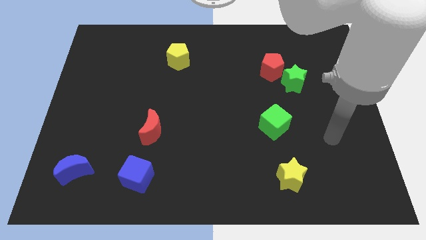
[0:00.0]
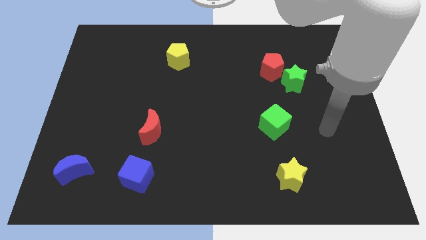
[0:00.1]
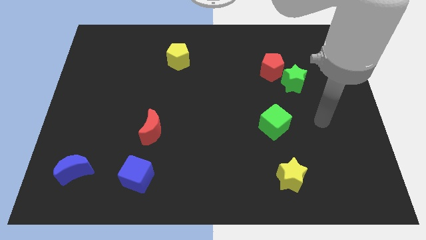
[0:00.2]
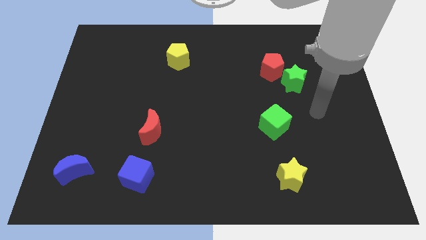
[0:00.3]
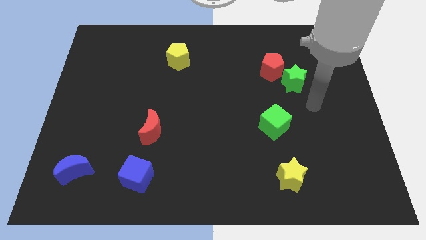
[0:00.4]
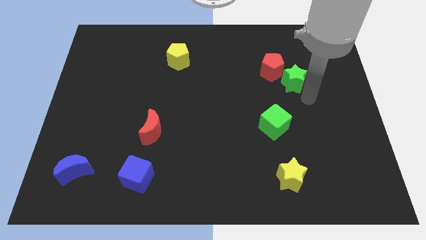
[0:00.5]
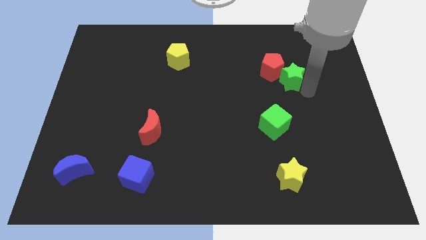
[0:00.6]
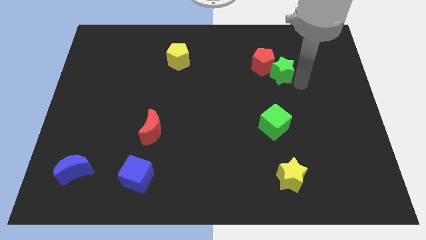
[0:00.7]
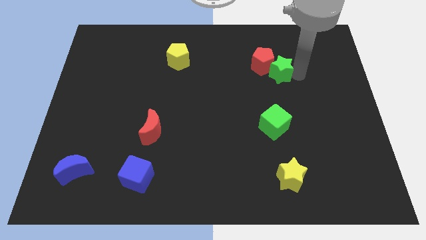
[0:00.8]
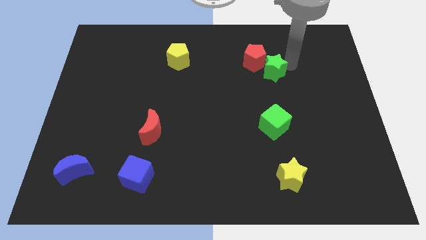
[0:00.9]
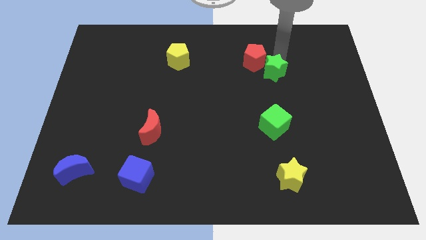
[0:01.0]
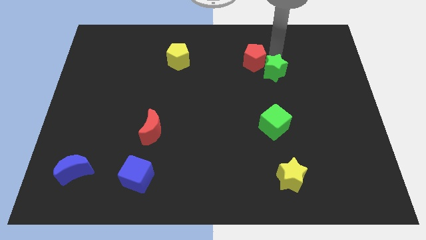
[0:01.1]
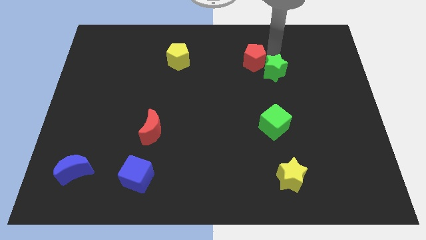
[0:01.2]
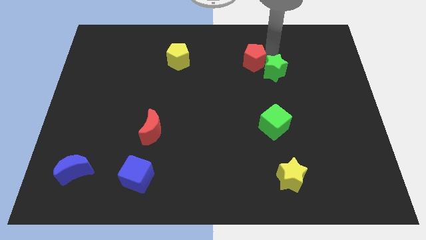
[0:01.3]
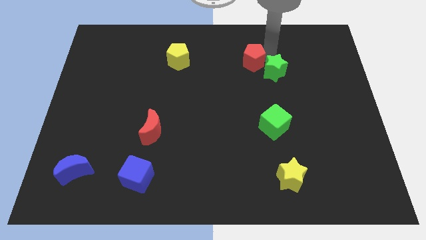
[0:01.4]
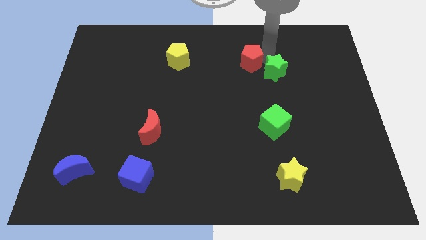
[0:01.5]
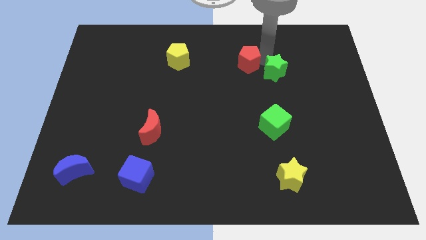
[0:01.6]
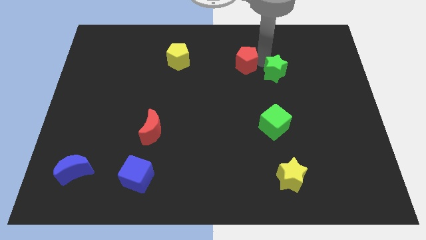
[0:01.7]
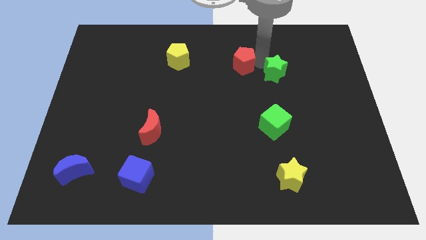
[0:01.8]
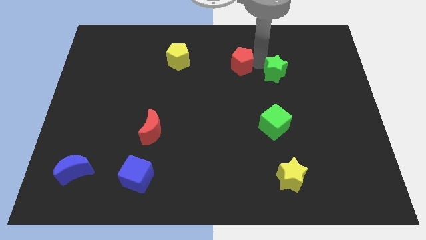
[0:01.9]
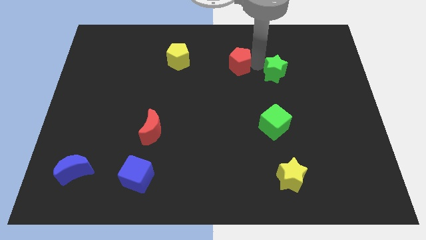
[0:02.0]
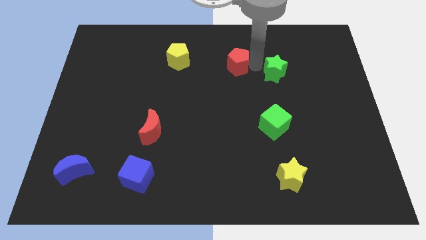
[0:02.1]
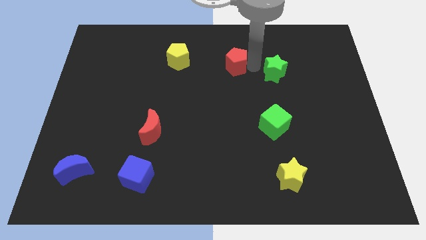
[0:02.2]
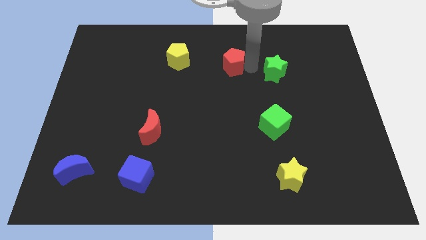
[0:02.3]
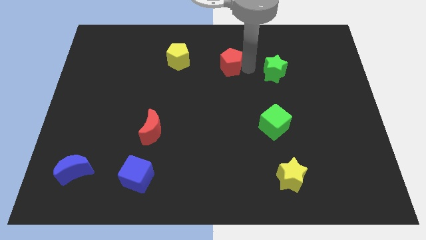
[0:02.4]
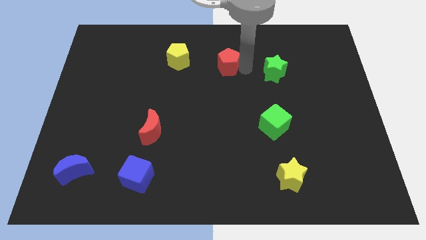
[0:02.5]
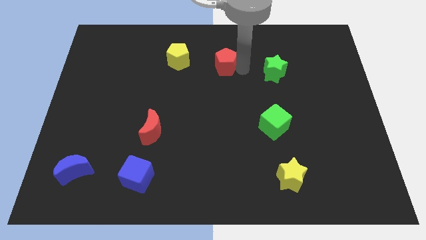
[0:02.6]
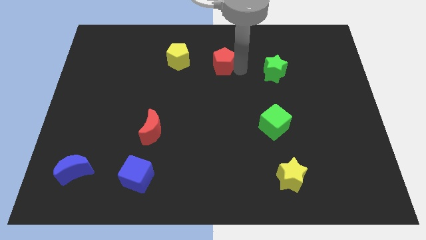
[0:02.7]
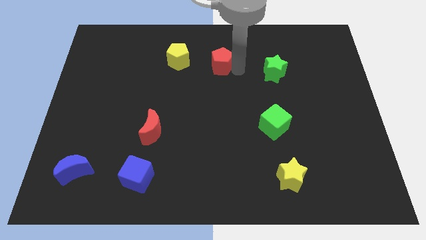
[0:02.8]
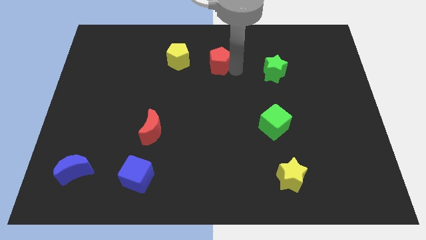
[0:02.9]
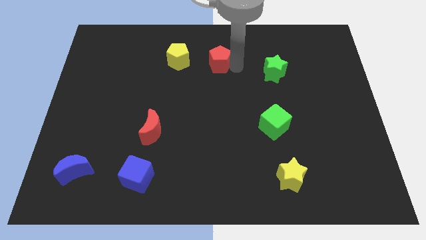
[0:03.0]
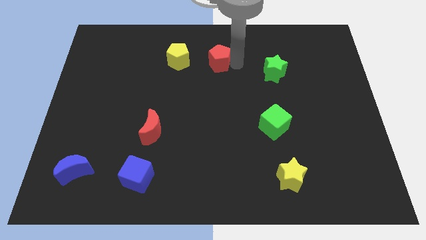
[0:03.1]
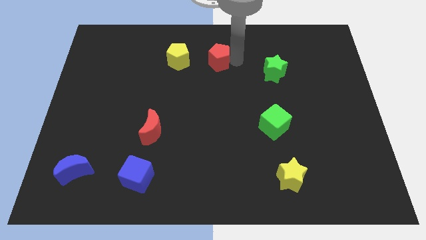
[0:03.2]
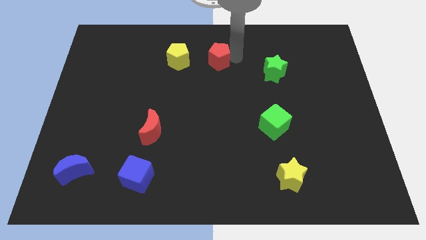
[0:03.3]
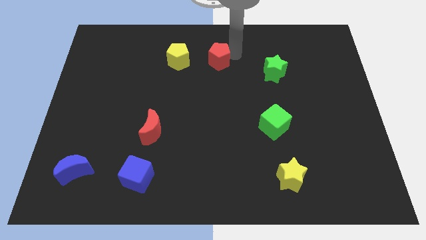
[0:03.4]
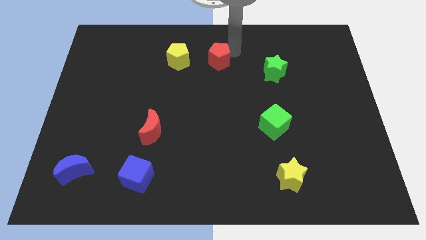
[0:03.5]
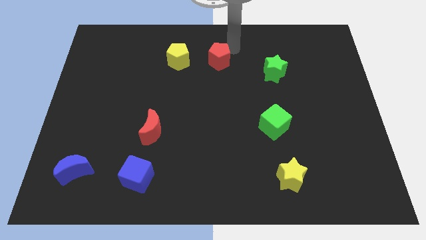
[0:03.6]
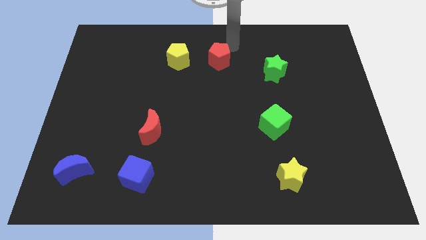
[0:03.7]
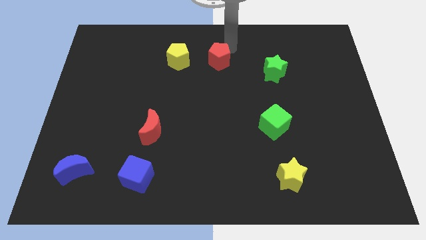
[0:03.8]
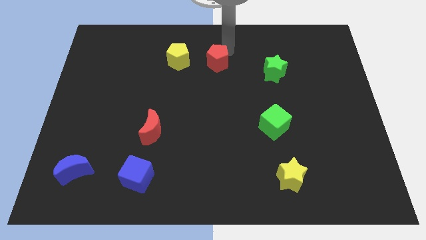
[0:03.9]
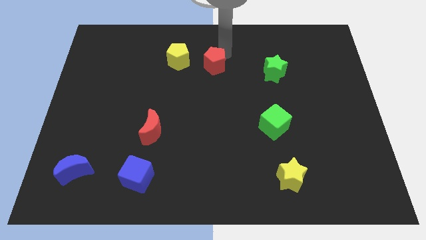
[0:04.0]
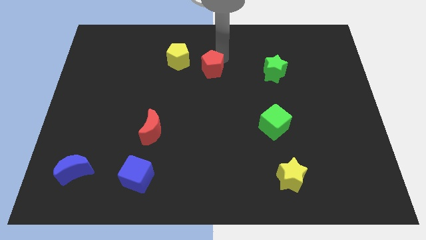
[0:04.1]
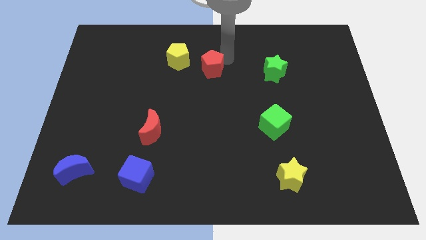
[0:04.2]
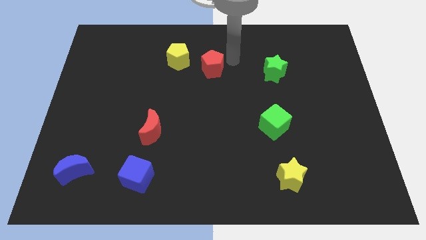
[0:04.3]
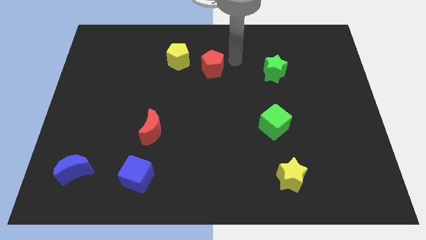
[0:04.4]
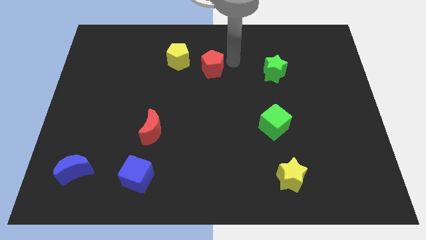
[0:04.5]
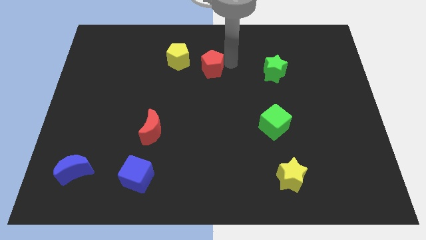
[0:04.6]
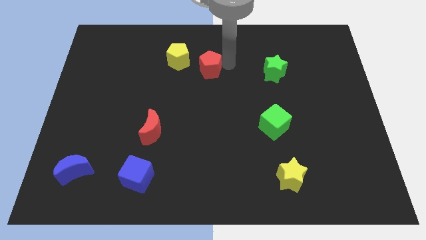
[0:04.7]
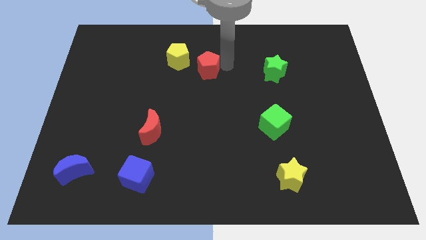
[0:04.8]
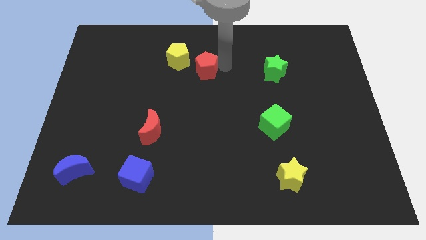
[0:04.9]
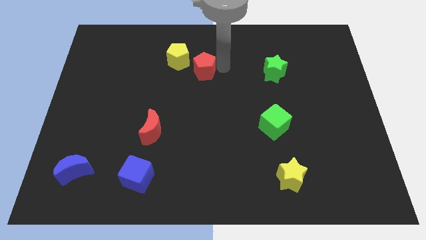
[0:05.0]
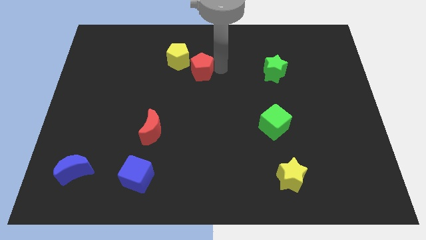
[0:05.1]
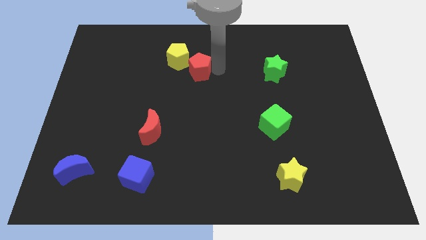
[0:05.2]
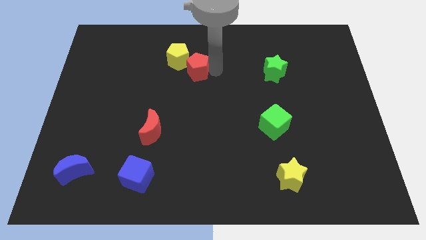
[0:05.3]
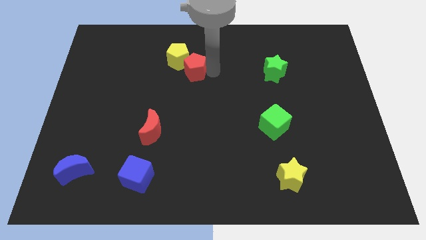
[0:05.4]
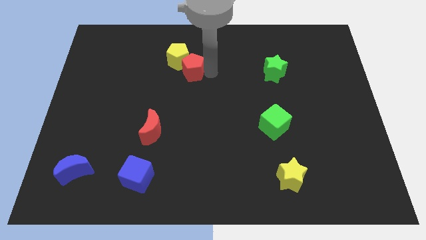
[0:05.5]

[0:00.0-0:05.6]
slide the red pentagon left

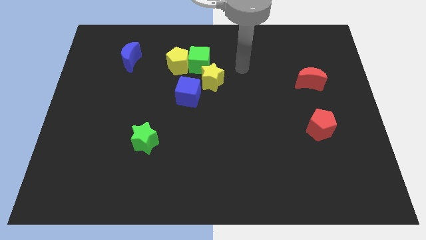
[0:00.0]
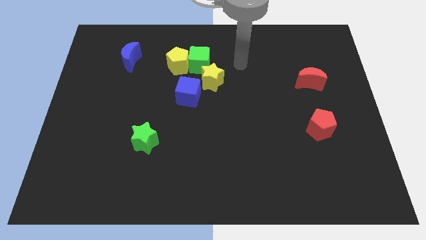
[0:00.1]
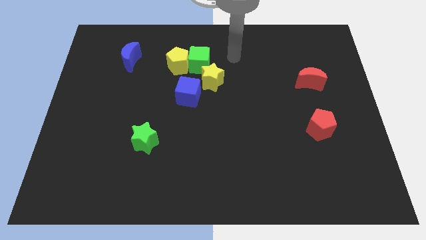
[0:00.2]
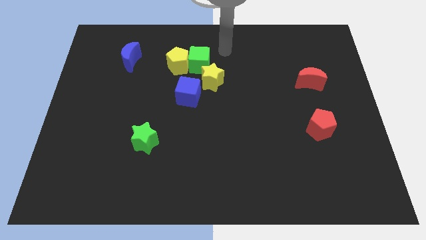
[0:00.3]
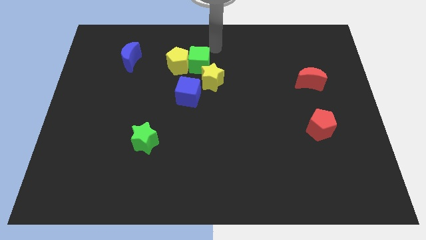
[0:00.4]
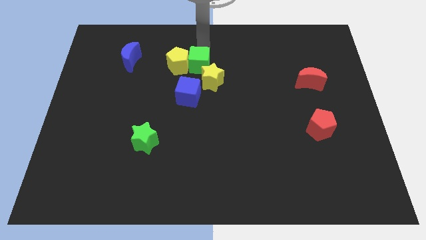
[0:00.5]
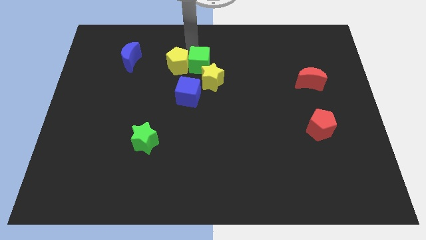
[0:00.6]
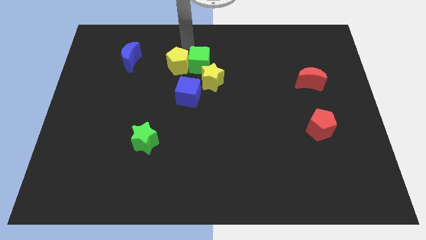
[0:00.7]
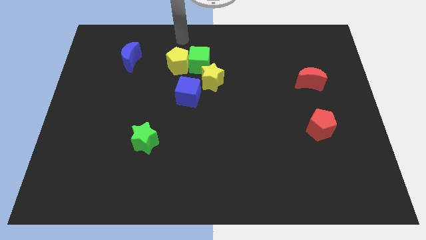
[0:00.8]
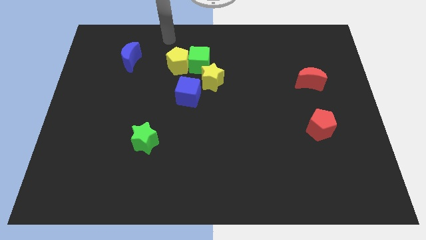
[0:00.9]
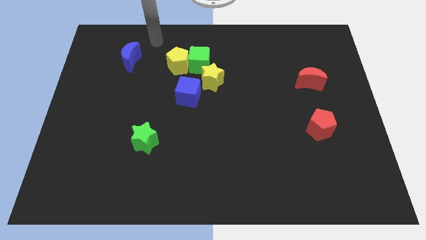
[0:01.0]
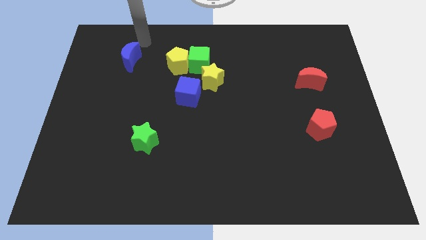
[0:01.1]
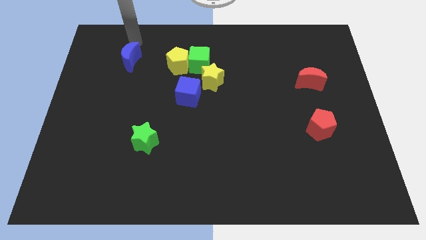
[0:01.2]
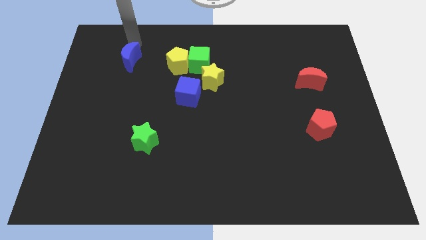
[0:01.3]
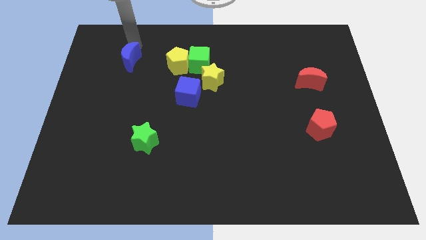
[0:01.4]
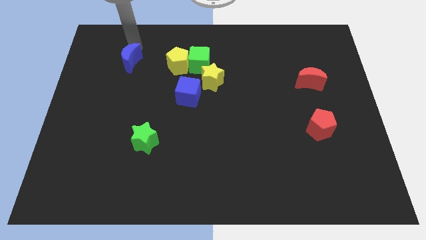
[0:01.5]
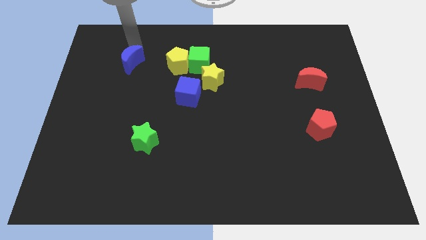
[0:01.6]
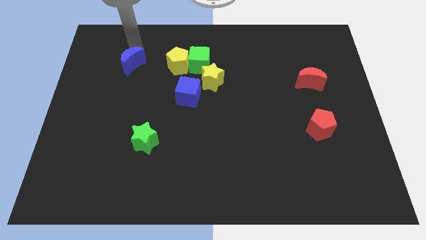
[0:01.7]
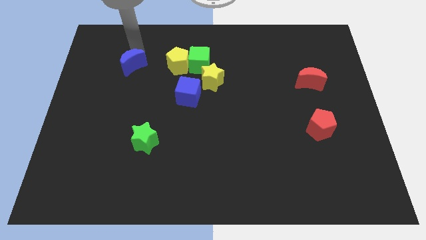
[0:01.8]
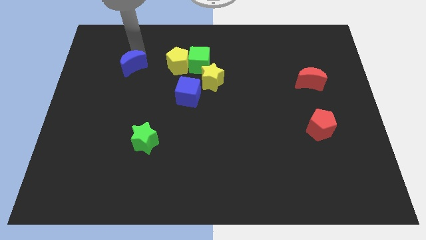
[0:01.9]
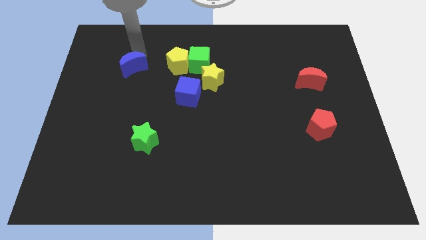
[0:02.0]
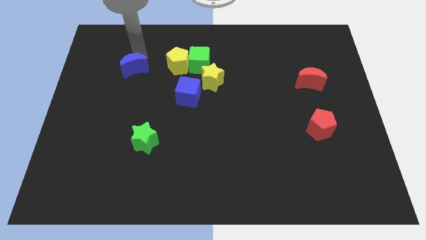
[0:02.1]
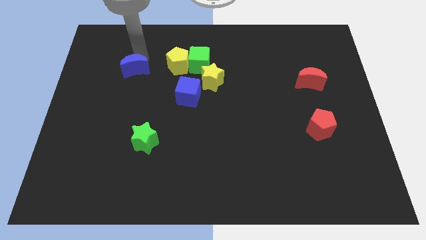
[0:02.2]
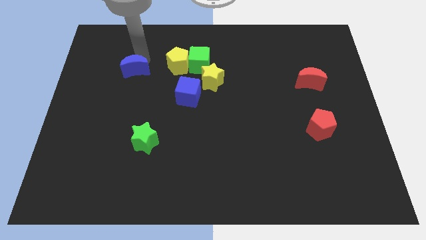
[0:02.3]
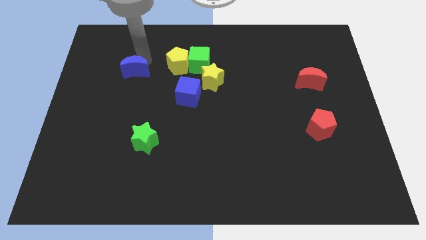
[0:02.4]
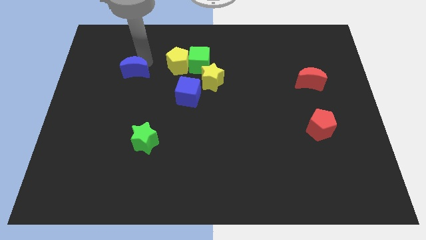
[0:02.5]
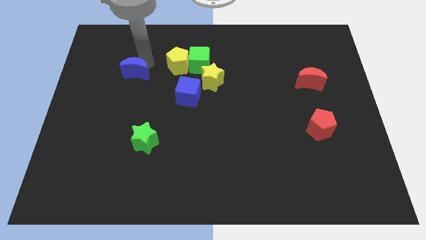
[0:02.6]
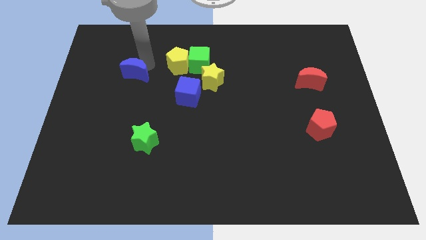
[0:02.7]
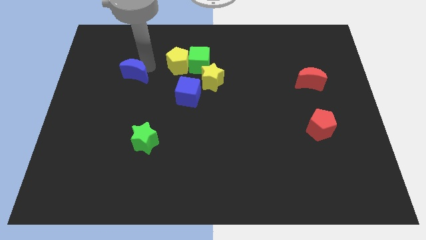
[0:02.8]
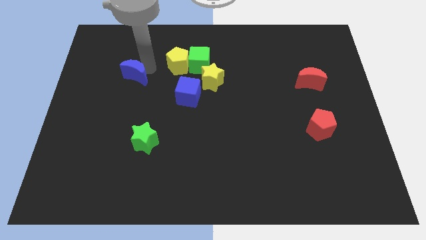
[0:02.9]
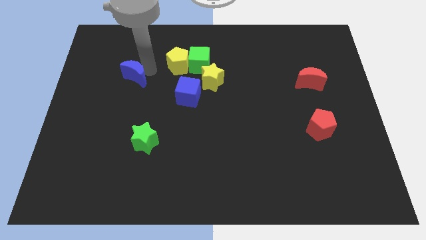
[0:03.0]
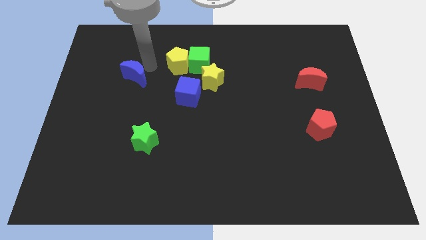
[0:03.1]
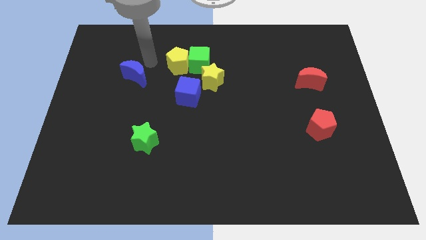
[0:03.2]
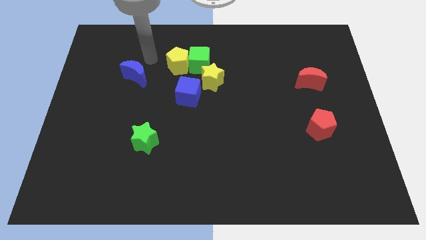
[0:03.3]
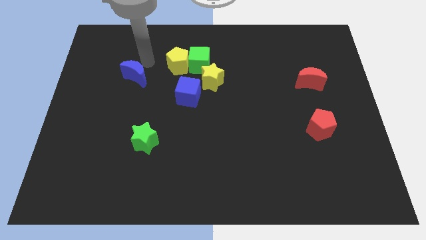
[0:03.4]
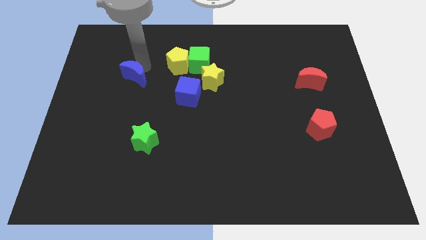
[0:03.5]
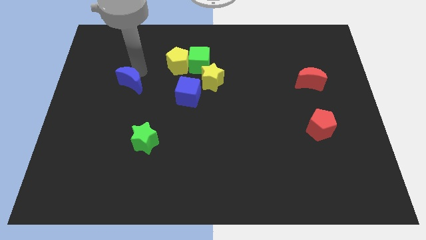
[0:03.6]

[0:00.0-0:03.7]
push the blue moon downwards a little
